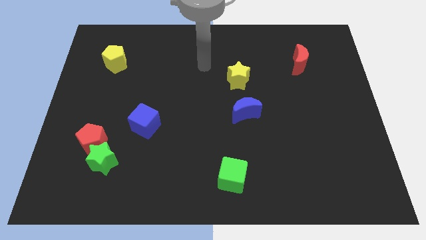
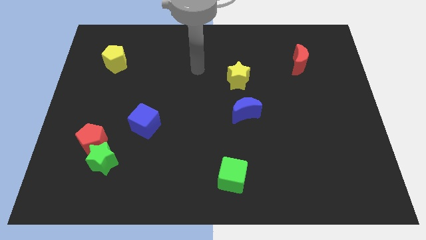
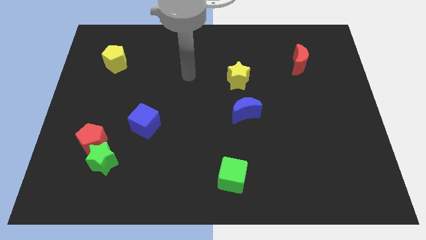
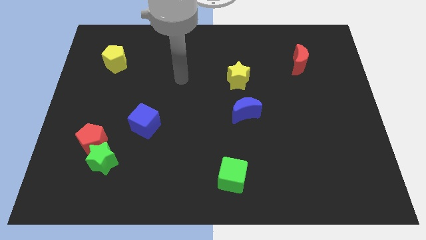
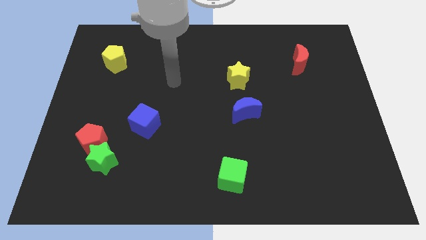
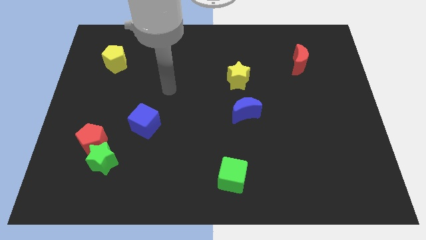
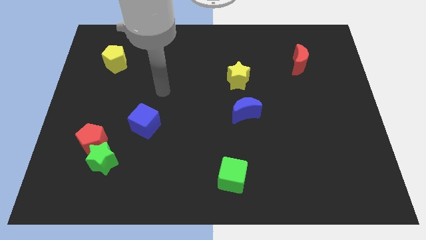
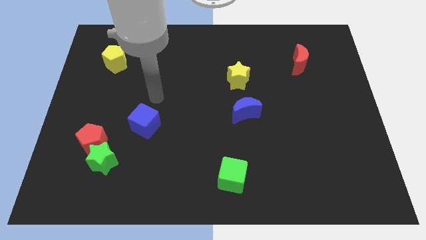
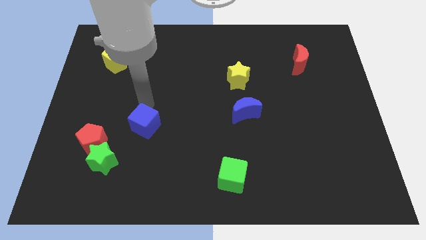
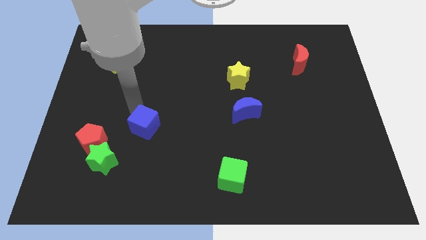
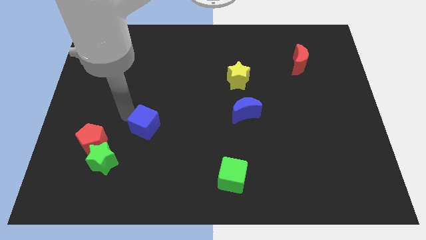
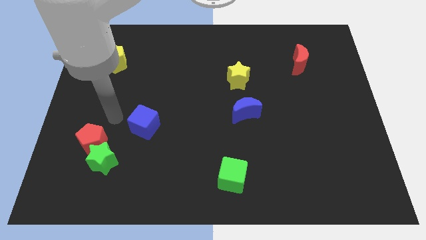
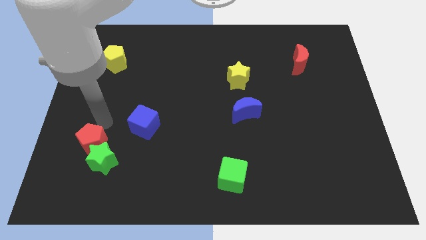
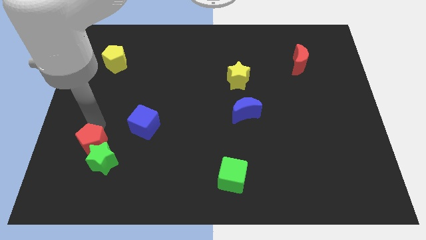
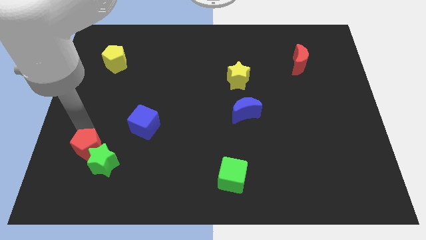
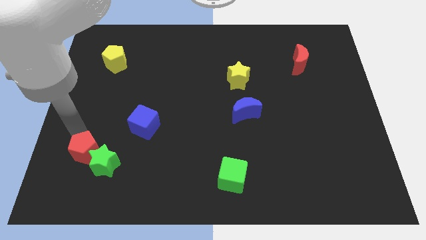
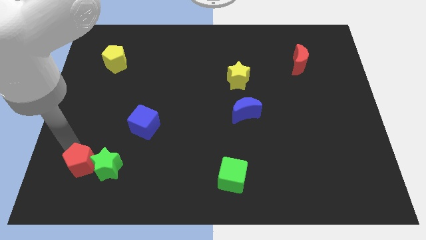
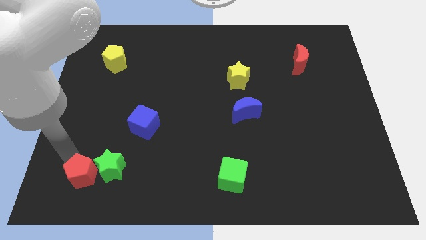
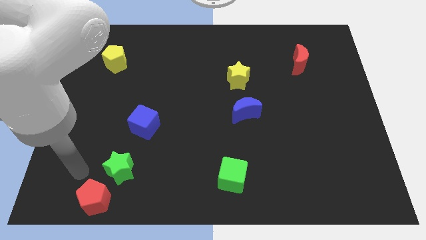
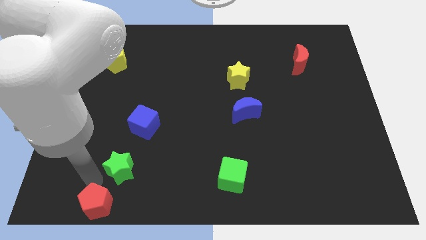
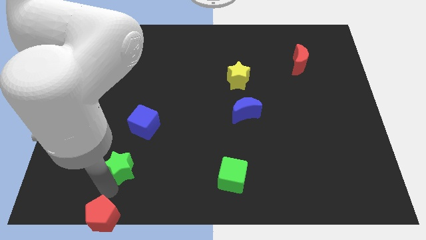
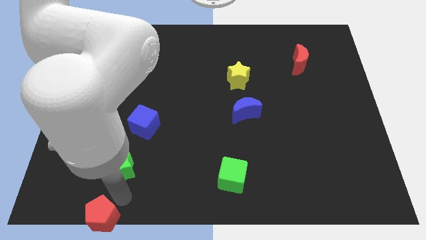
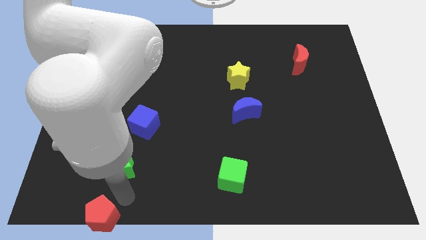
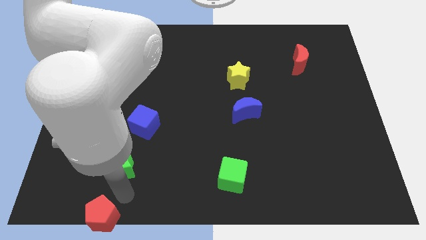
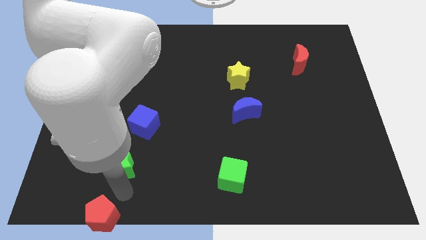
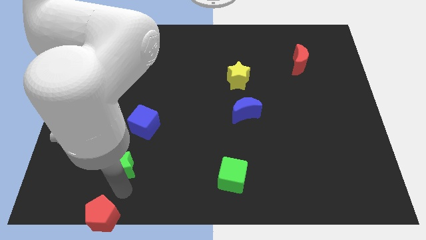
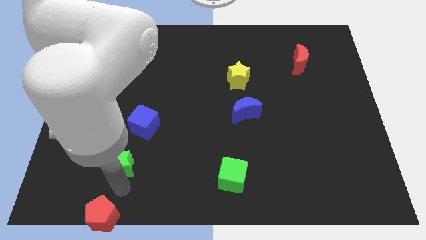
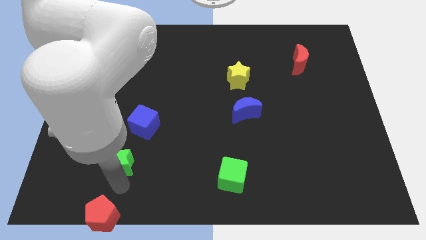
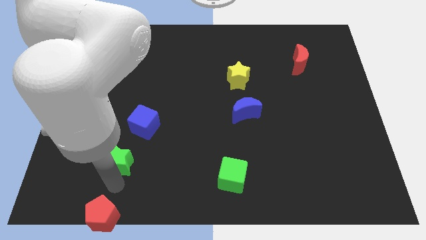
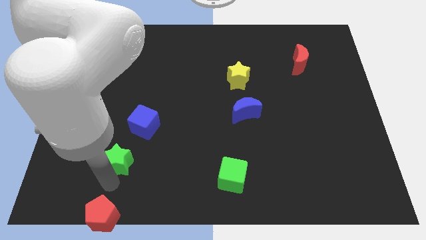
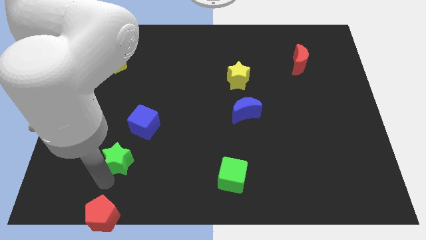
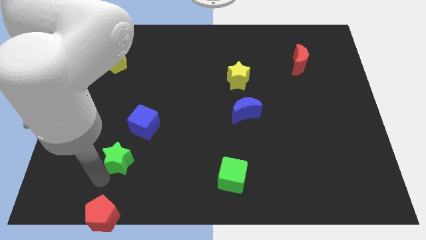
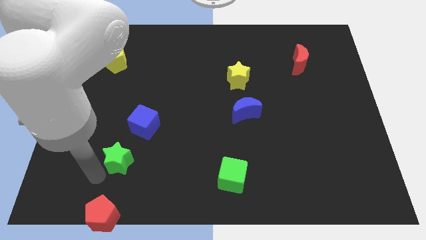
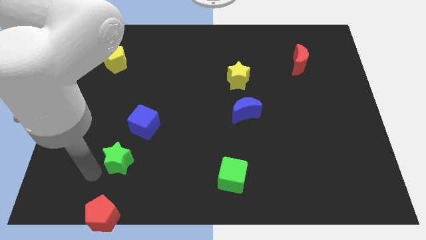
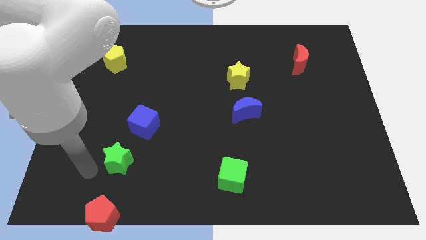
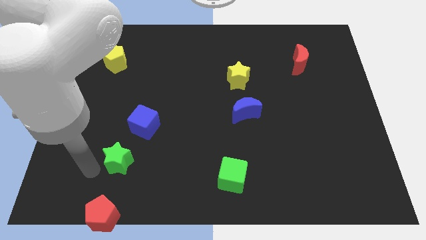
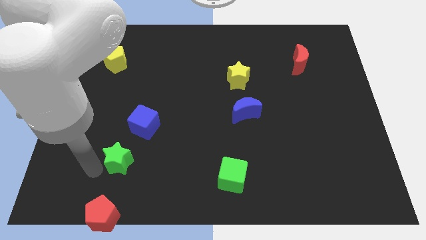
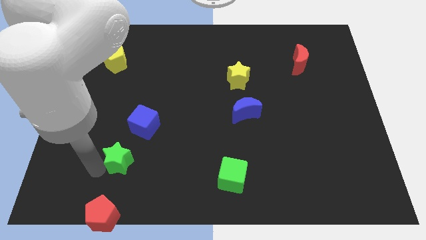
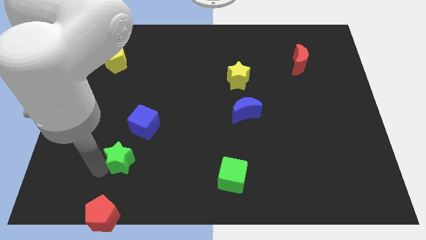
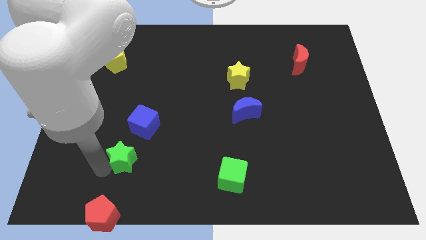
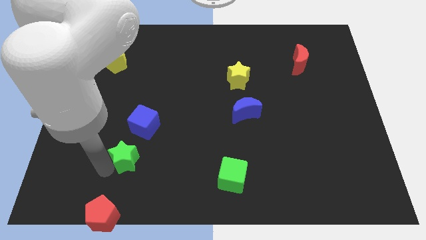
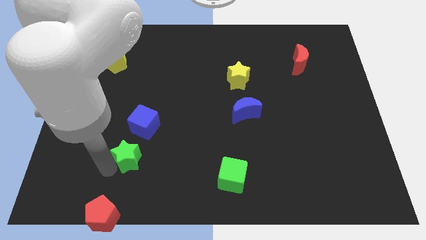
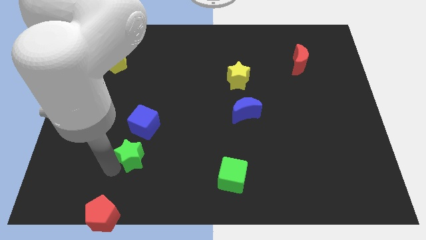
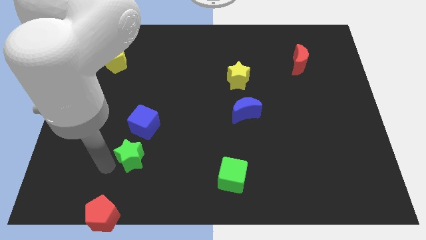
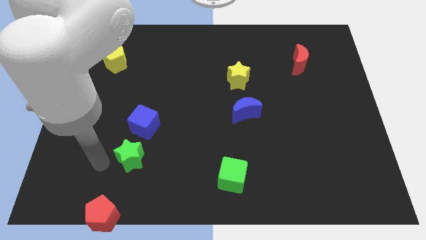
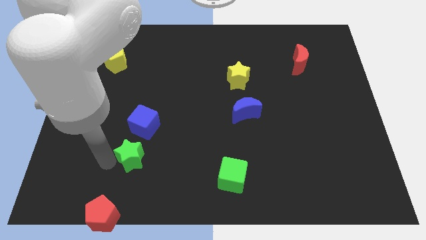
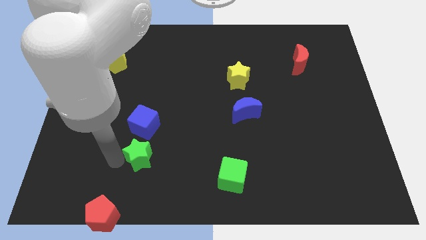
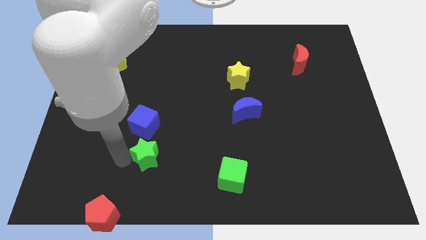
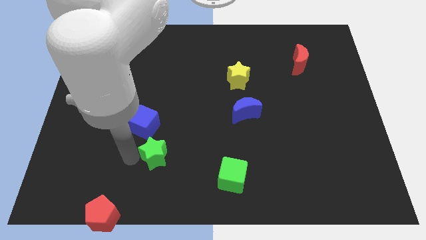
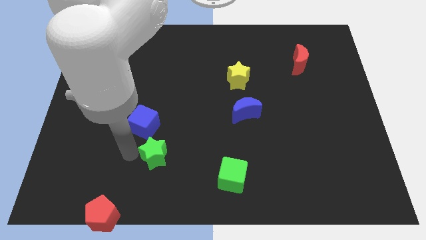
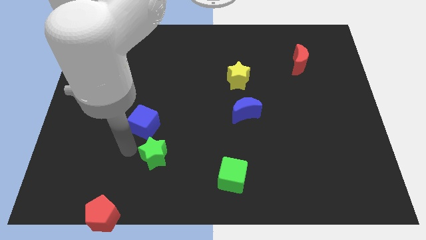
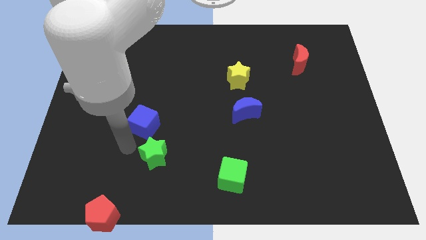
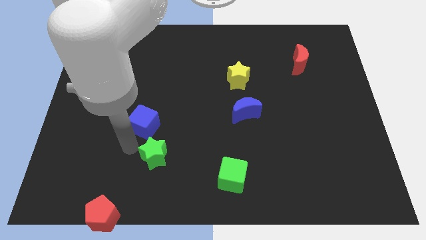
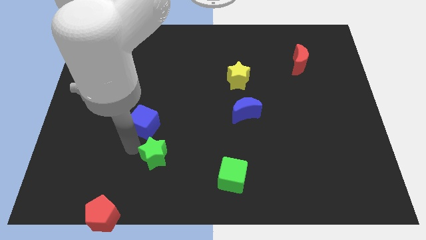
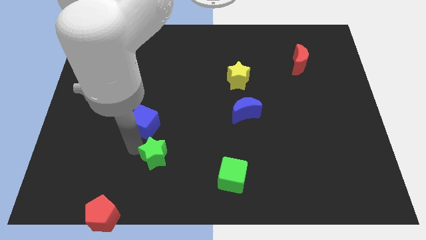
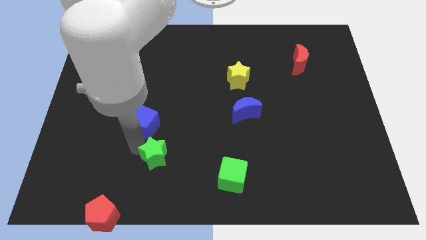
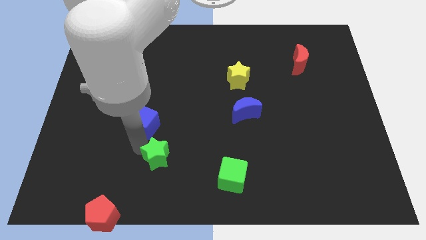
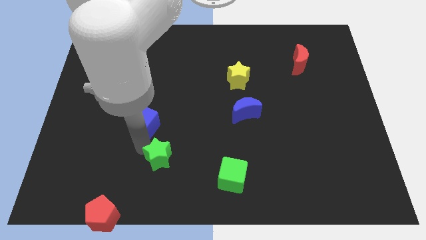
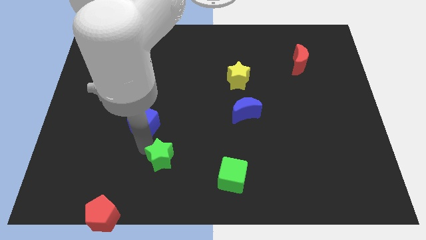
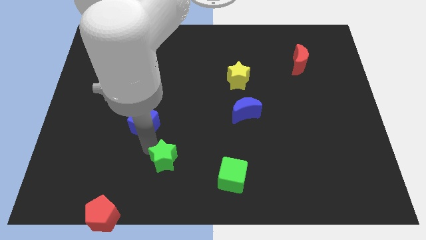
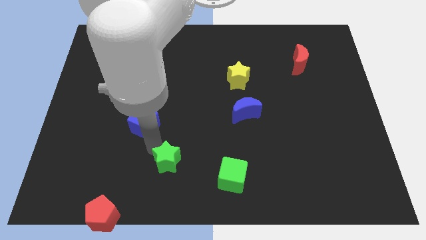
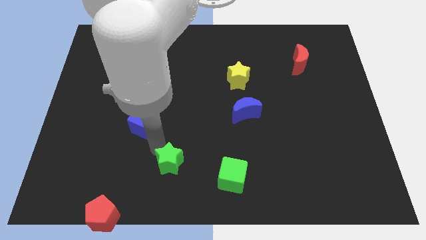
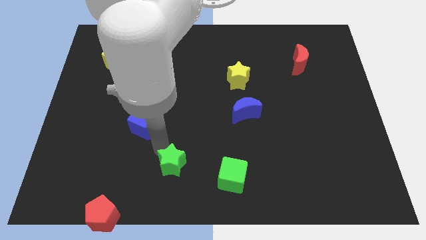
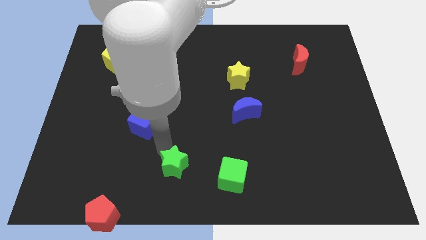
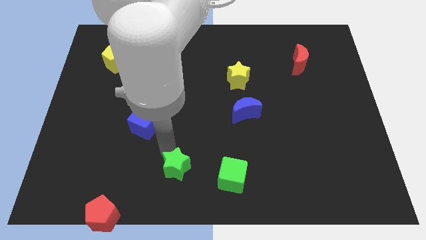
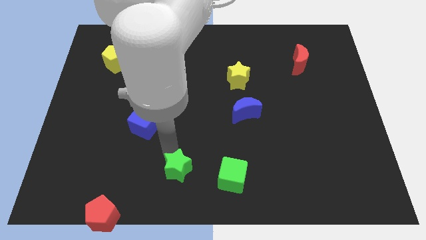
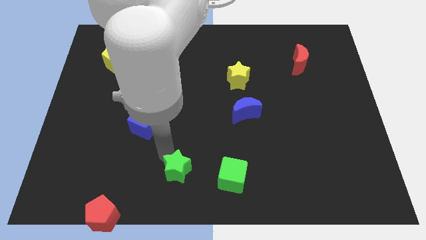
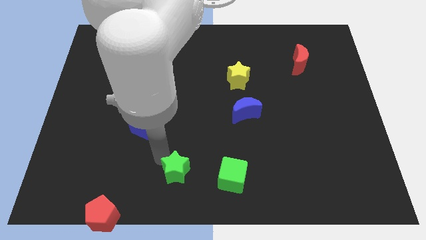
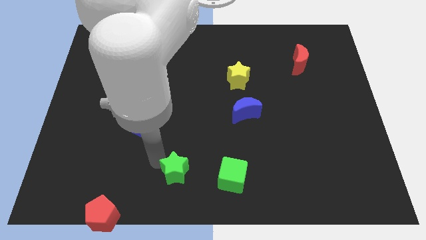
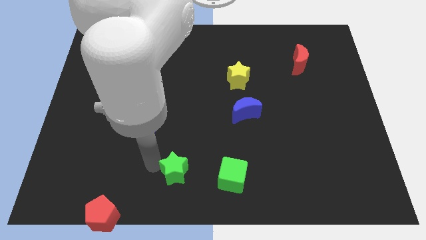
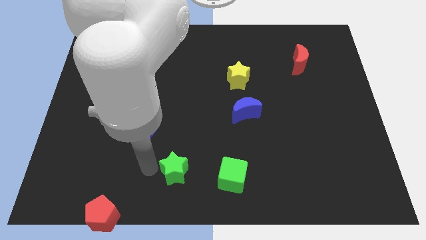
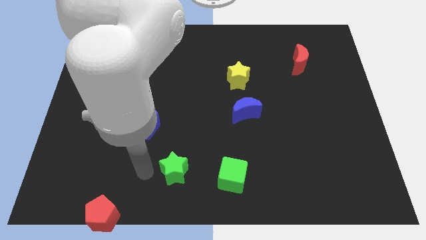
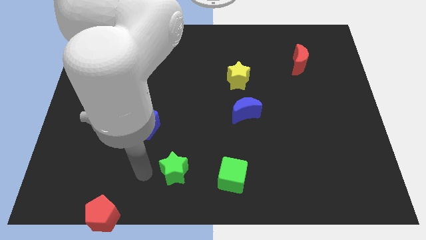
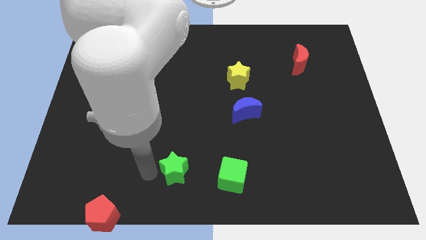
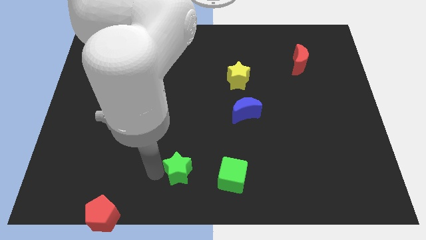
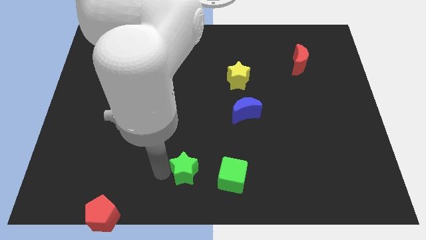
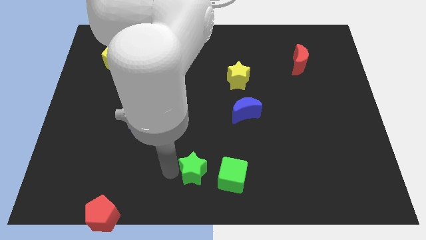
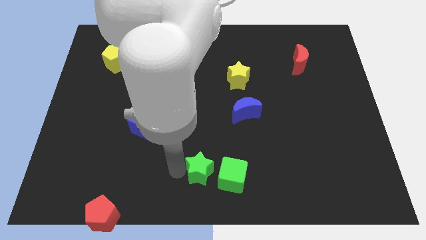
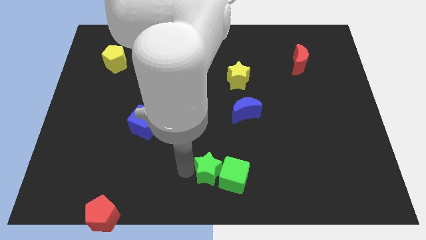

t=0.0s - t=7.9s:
put the green star towards the green cube
